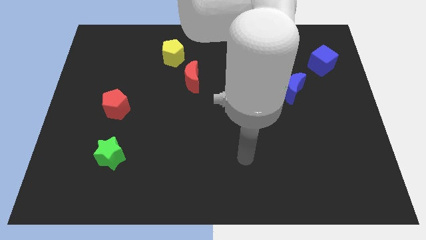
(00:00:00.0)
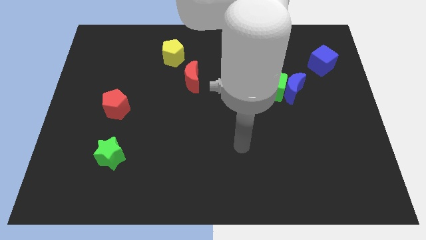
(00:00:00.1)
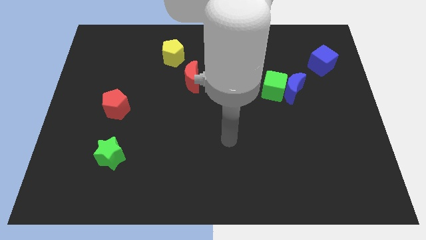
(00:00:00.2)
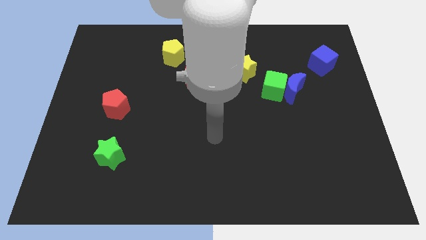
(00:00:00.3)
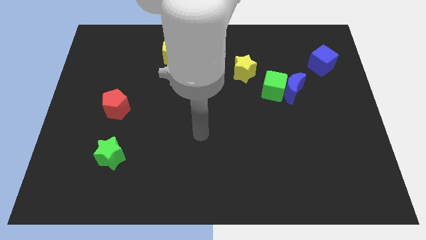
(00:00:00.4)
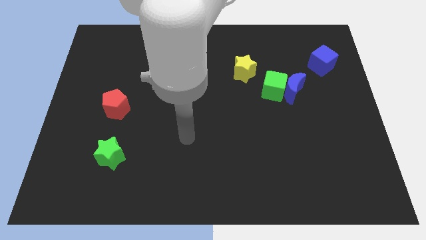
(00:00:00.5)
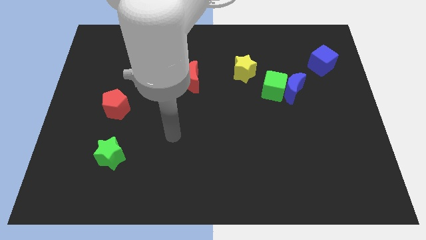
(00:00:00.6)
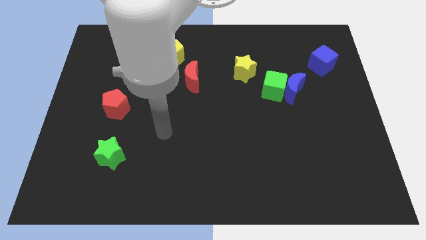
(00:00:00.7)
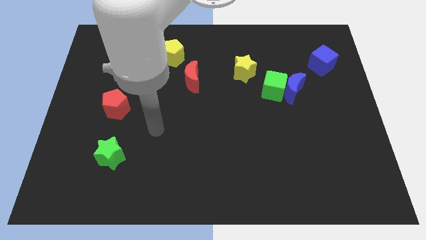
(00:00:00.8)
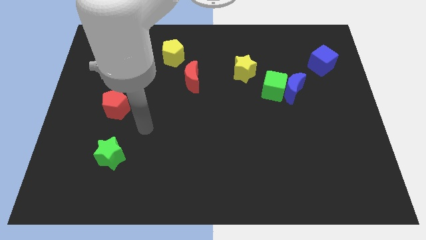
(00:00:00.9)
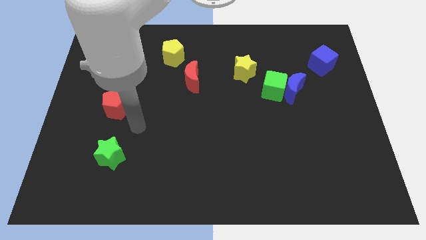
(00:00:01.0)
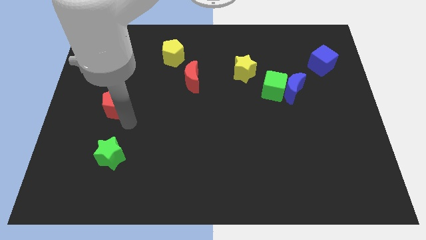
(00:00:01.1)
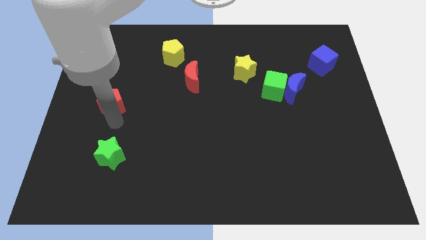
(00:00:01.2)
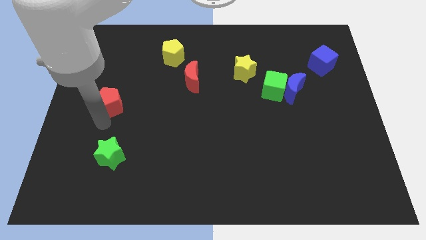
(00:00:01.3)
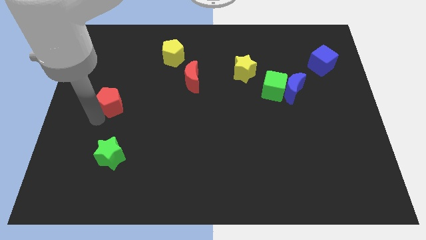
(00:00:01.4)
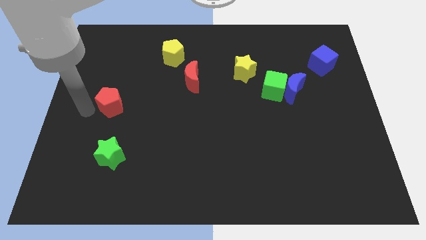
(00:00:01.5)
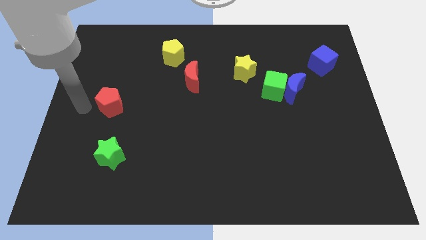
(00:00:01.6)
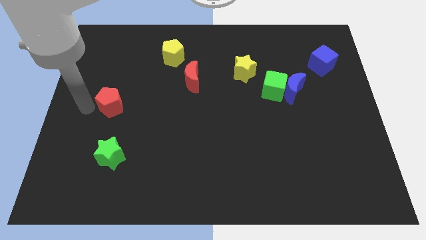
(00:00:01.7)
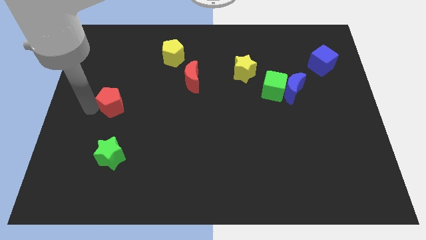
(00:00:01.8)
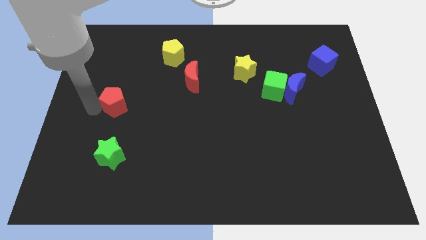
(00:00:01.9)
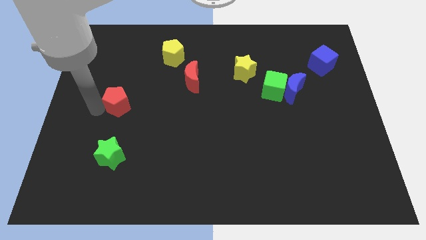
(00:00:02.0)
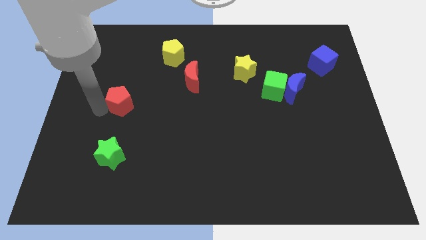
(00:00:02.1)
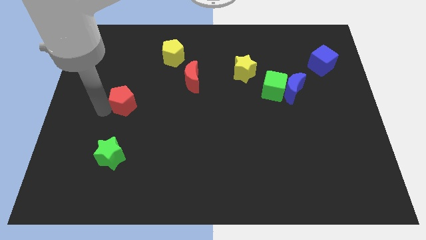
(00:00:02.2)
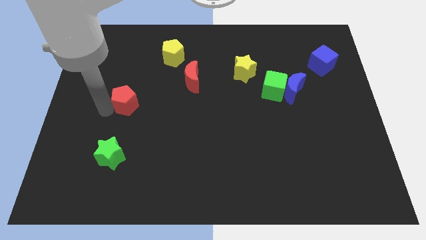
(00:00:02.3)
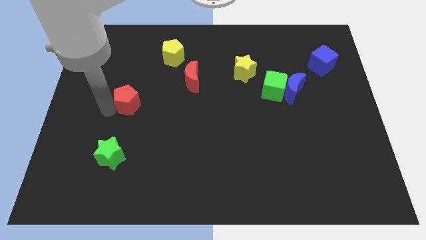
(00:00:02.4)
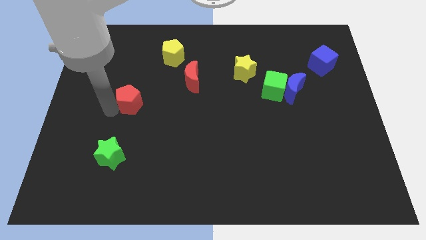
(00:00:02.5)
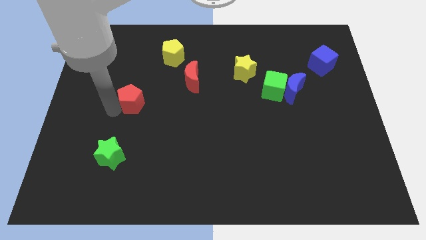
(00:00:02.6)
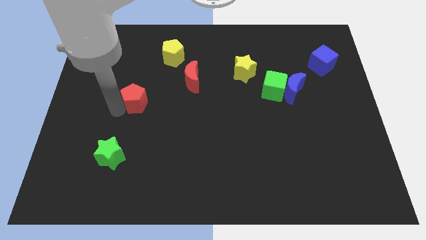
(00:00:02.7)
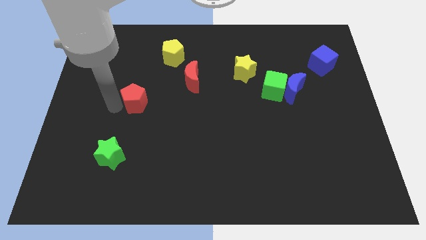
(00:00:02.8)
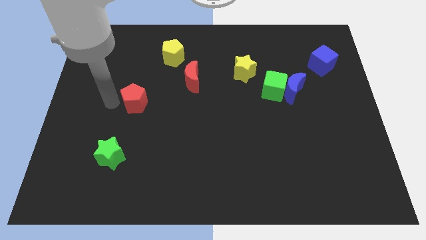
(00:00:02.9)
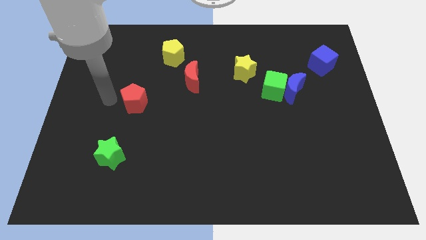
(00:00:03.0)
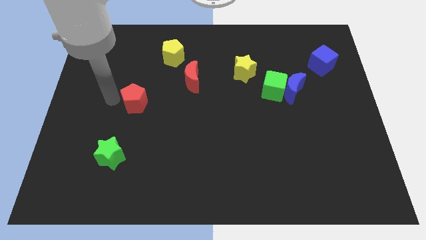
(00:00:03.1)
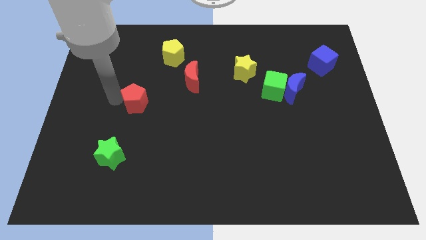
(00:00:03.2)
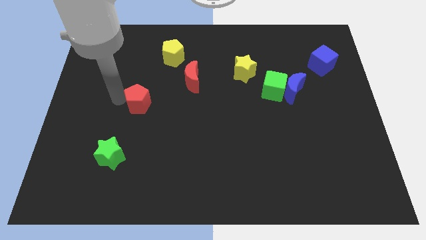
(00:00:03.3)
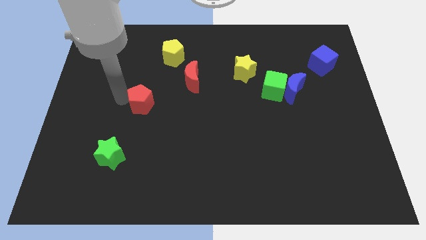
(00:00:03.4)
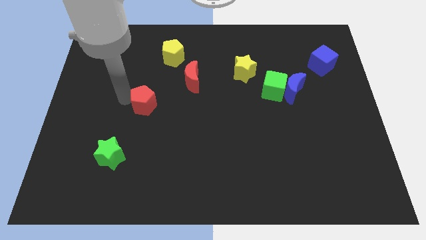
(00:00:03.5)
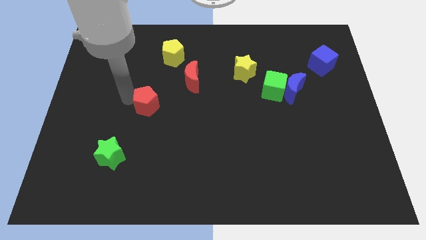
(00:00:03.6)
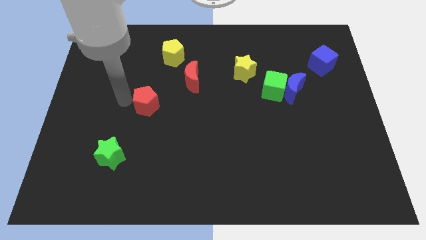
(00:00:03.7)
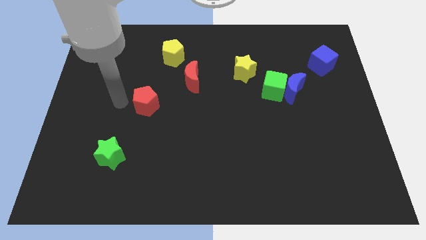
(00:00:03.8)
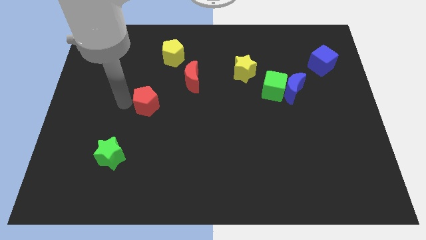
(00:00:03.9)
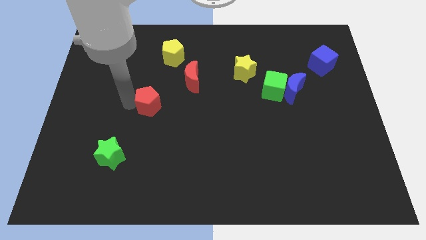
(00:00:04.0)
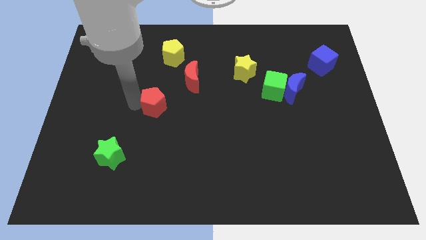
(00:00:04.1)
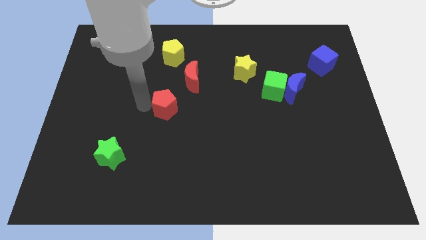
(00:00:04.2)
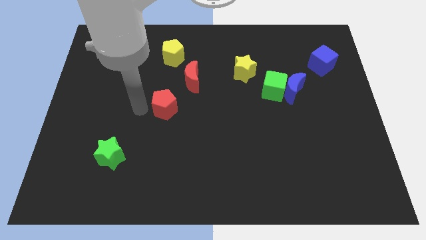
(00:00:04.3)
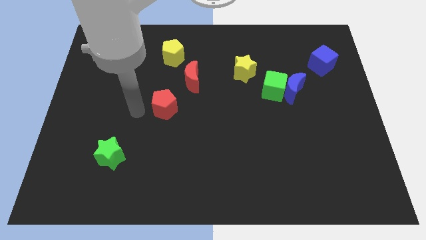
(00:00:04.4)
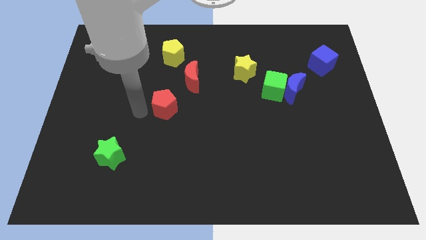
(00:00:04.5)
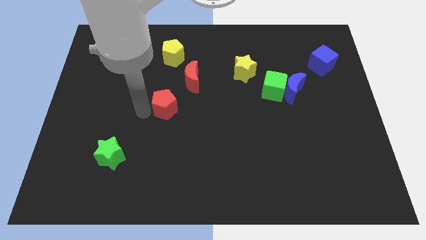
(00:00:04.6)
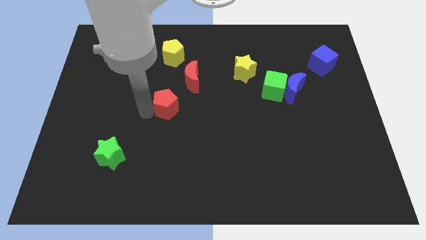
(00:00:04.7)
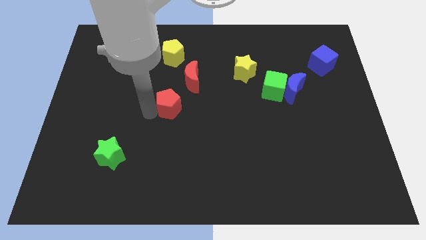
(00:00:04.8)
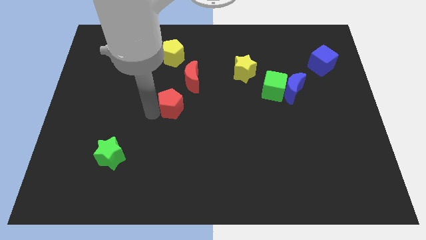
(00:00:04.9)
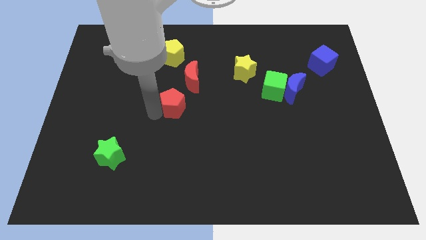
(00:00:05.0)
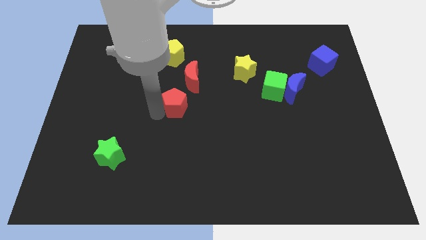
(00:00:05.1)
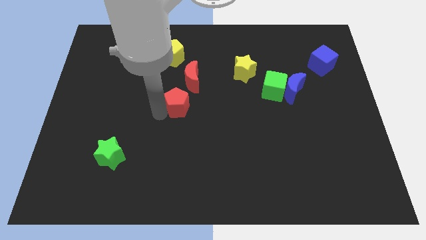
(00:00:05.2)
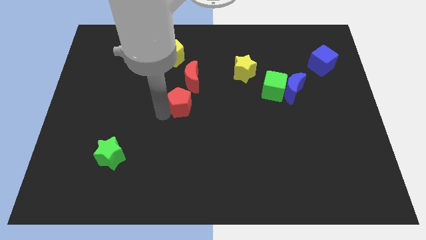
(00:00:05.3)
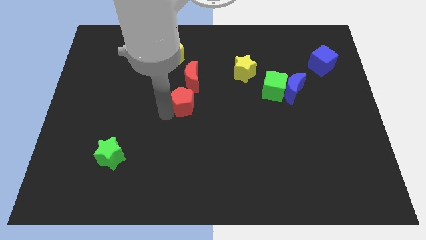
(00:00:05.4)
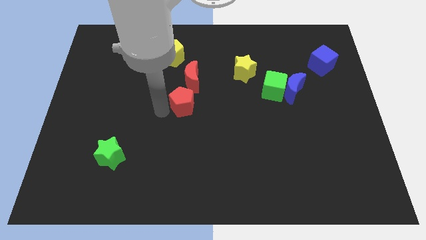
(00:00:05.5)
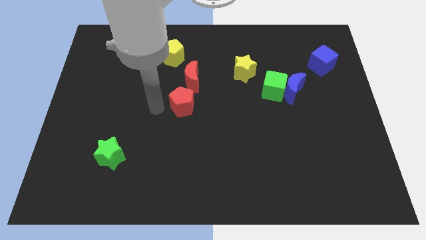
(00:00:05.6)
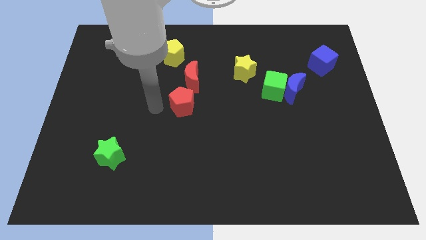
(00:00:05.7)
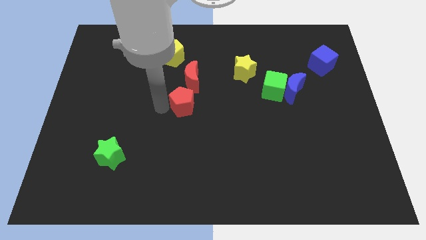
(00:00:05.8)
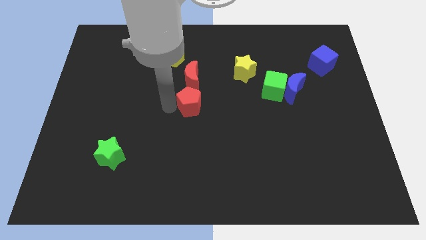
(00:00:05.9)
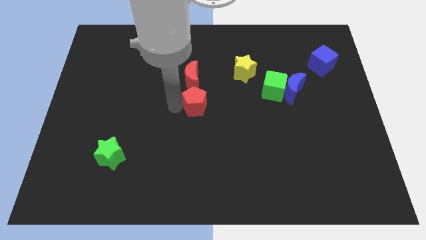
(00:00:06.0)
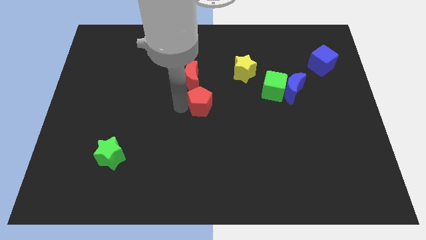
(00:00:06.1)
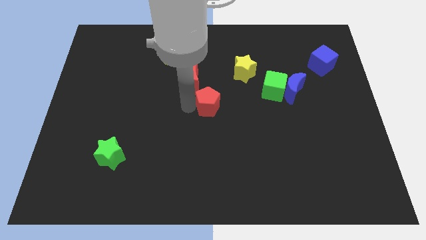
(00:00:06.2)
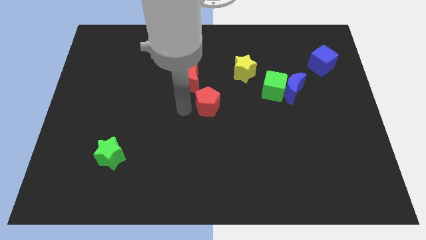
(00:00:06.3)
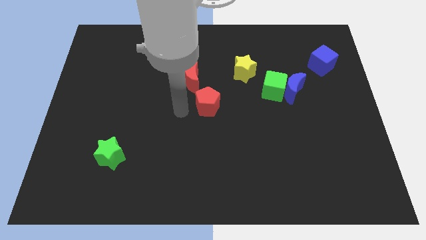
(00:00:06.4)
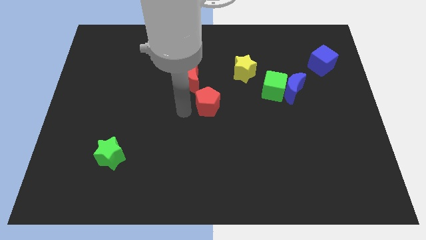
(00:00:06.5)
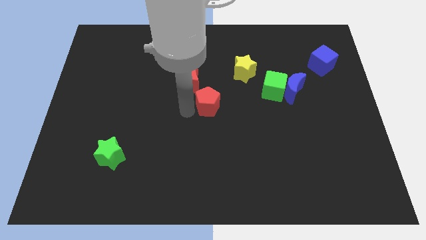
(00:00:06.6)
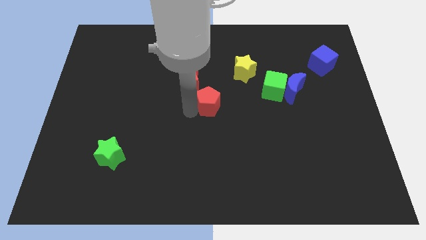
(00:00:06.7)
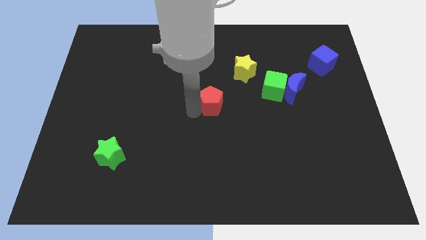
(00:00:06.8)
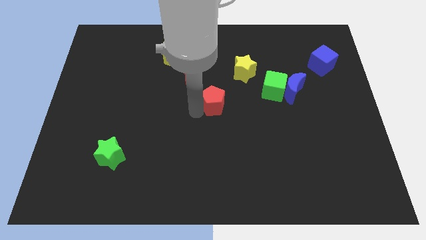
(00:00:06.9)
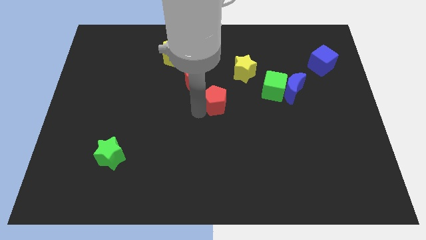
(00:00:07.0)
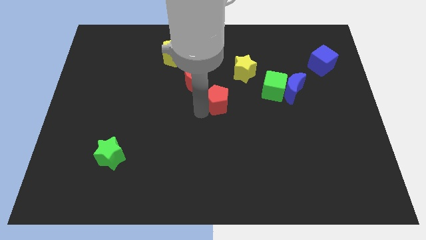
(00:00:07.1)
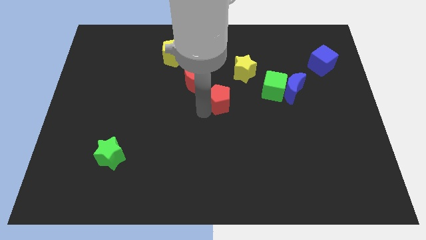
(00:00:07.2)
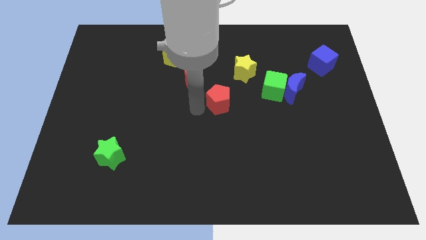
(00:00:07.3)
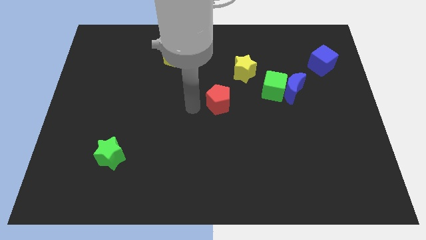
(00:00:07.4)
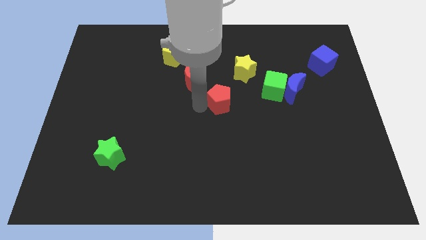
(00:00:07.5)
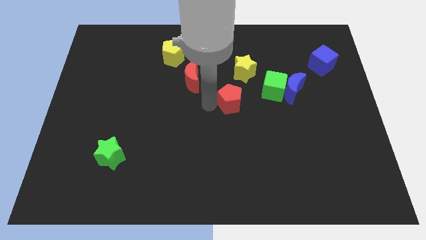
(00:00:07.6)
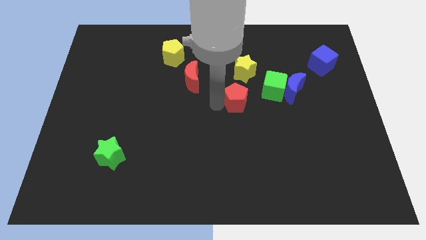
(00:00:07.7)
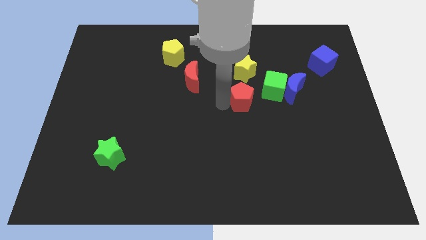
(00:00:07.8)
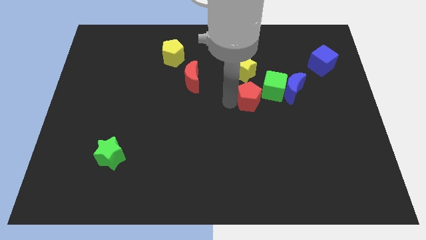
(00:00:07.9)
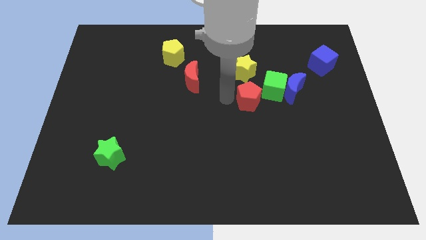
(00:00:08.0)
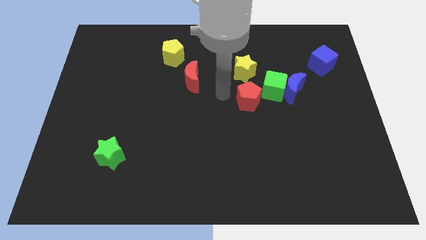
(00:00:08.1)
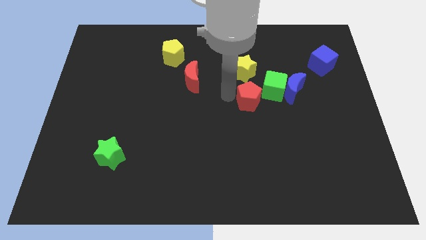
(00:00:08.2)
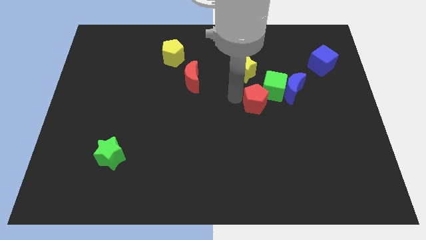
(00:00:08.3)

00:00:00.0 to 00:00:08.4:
push the red pentagon to the bottom left side of the blue moon
